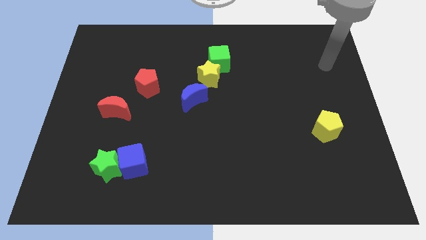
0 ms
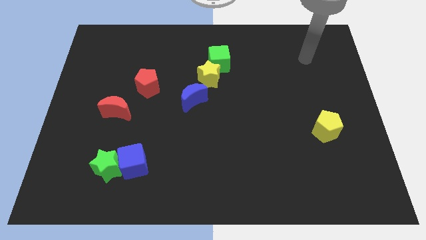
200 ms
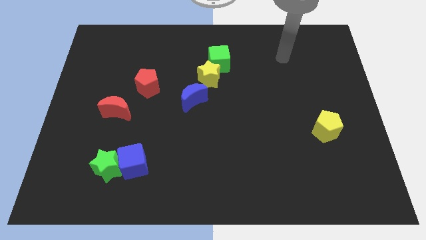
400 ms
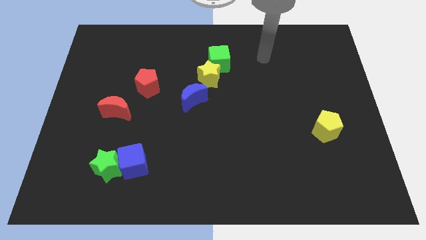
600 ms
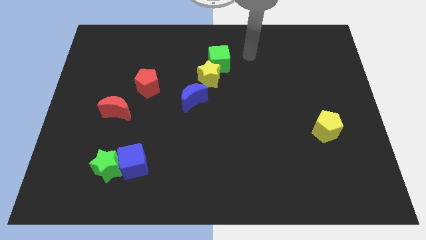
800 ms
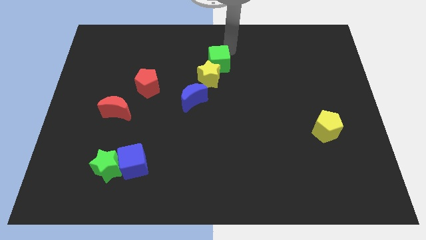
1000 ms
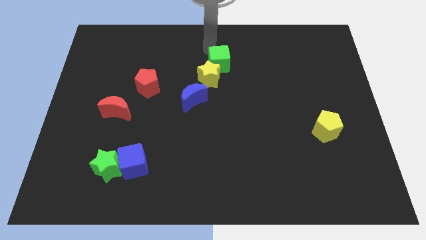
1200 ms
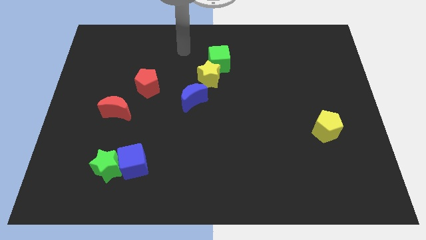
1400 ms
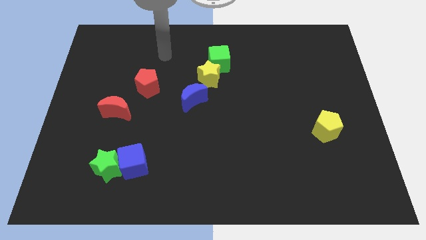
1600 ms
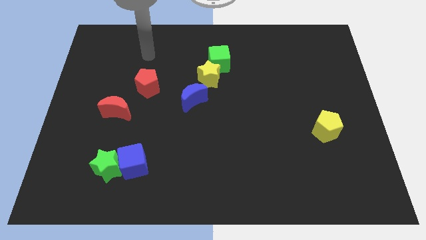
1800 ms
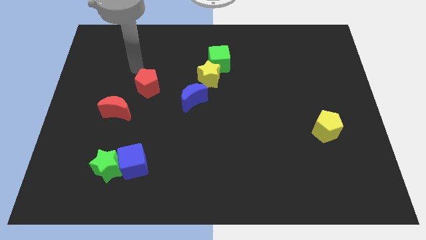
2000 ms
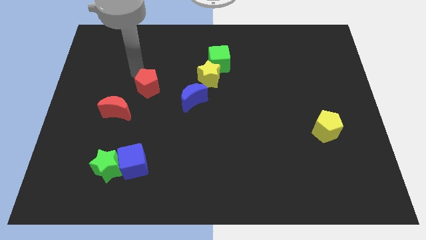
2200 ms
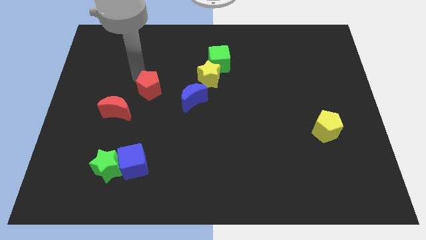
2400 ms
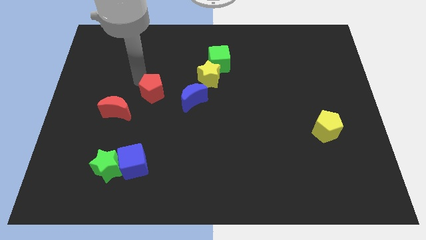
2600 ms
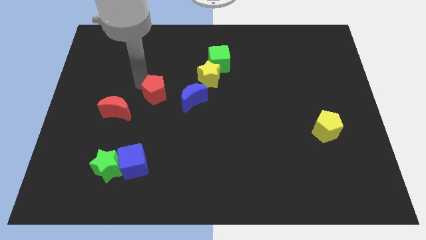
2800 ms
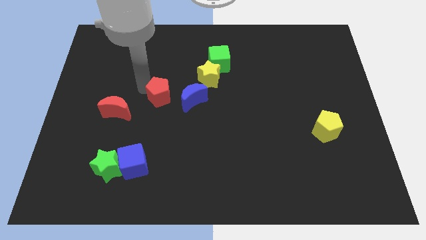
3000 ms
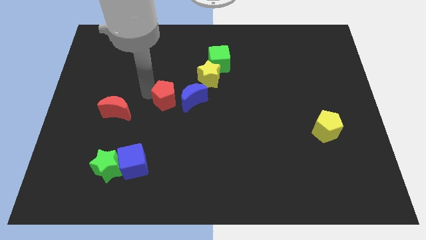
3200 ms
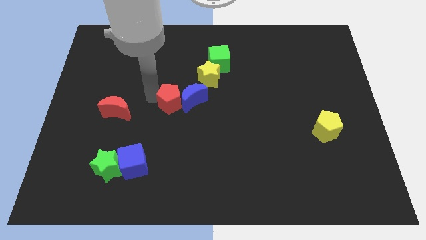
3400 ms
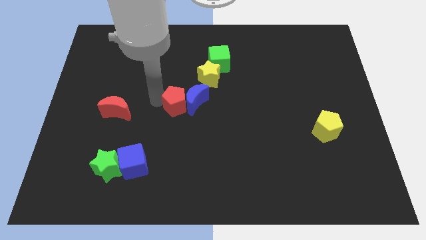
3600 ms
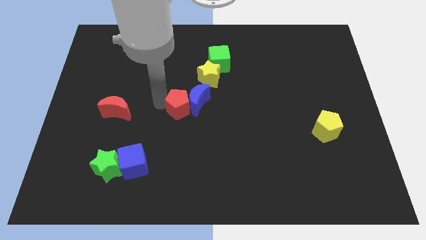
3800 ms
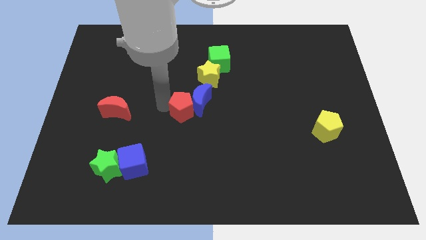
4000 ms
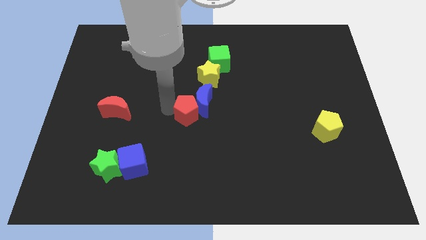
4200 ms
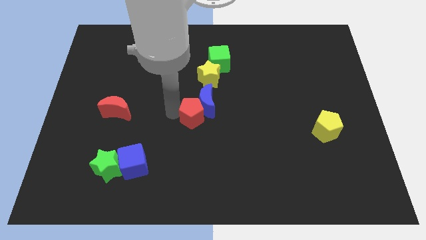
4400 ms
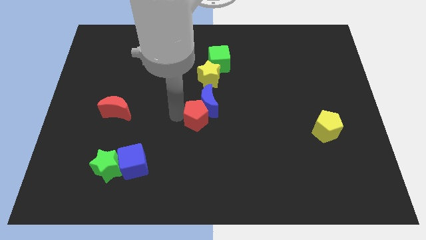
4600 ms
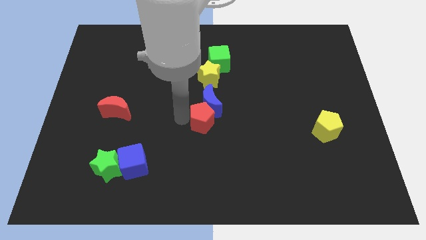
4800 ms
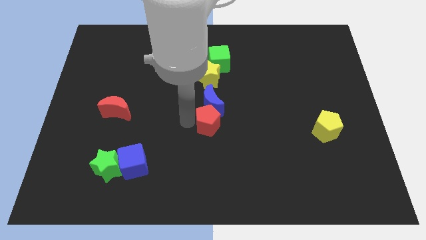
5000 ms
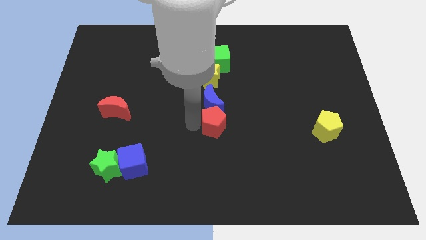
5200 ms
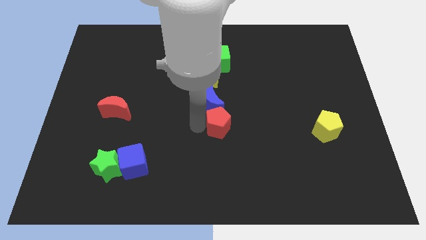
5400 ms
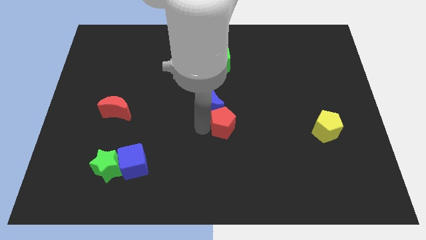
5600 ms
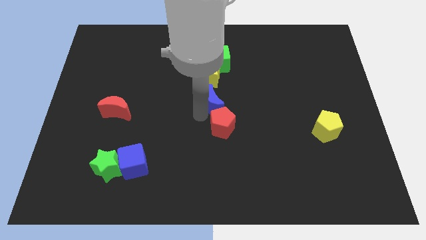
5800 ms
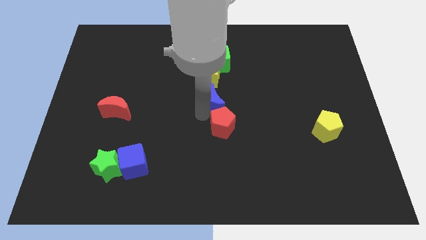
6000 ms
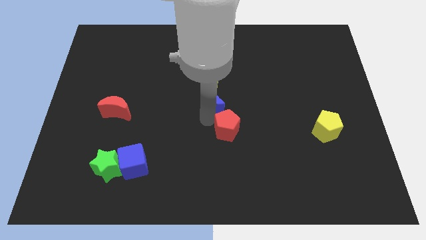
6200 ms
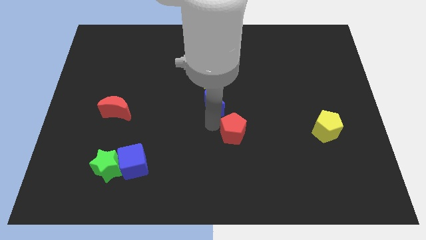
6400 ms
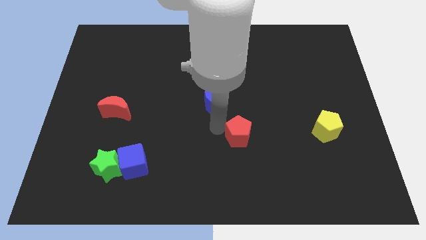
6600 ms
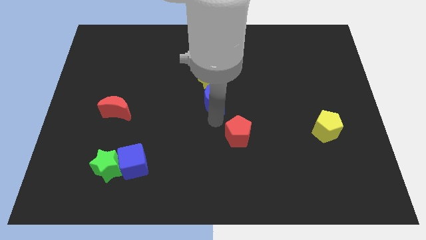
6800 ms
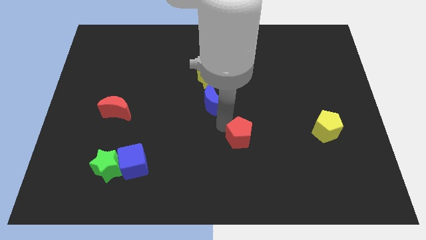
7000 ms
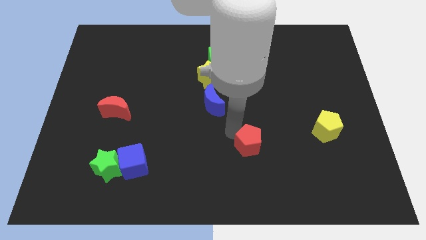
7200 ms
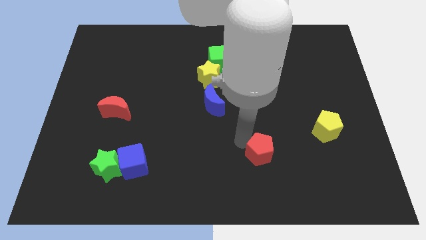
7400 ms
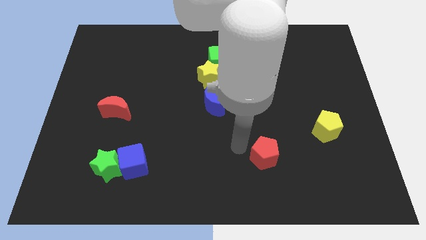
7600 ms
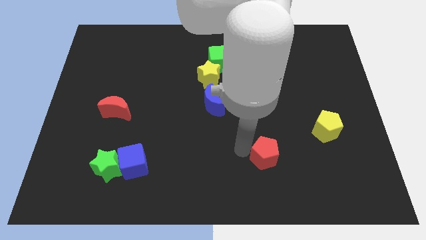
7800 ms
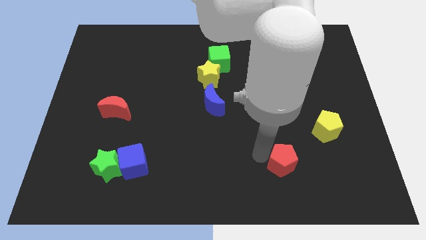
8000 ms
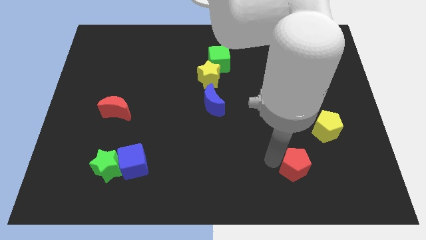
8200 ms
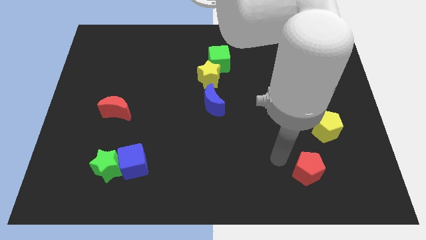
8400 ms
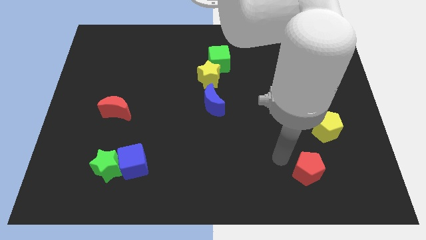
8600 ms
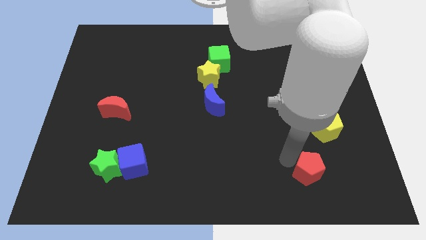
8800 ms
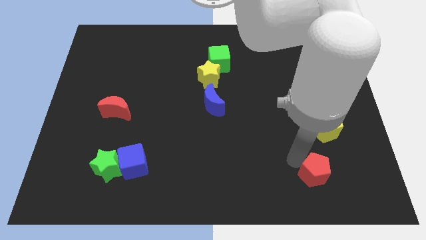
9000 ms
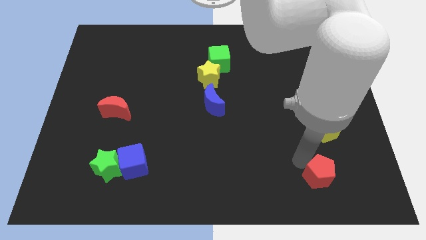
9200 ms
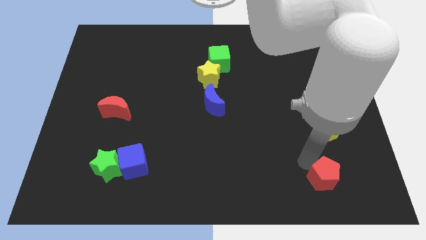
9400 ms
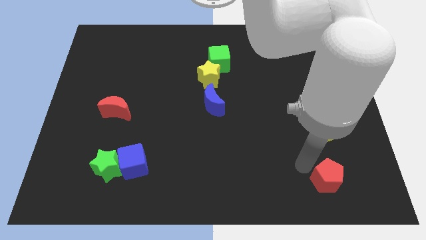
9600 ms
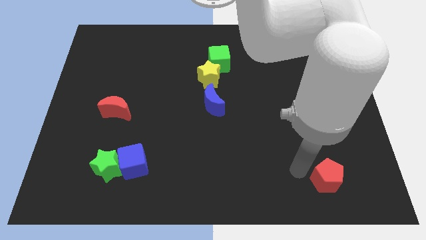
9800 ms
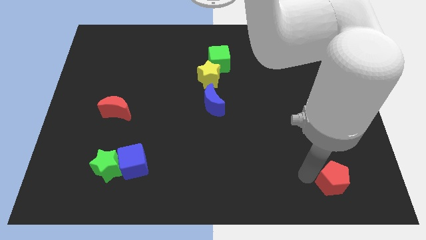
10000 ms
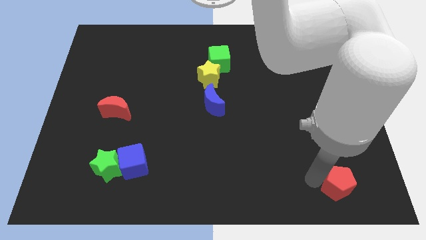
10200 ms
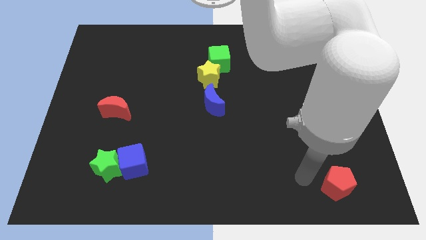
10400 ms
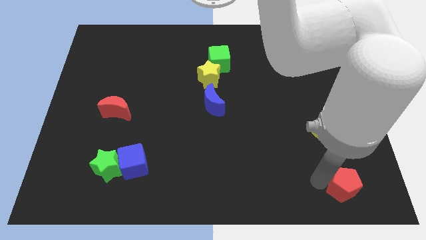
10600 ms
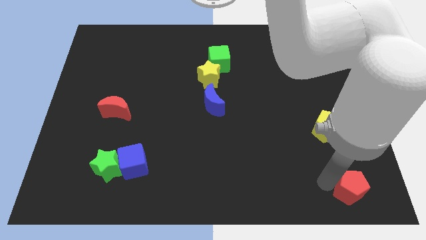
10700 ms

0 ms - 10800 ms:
push the red pentagon to the lower right corner
